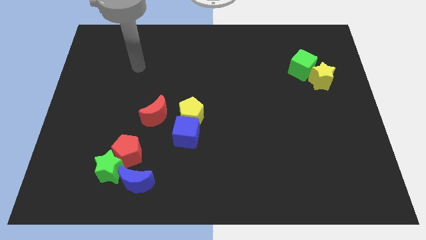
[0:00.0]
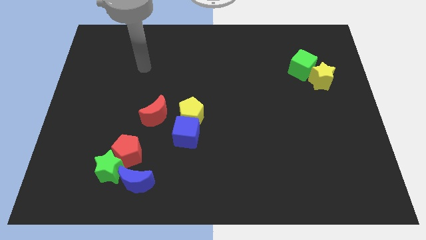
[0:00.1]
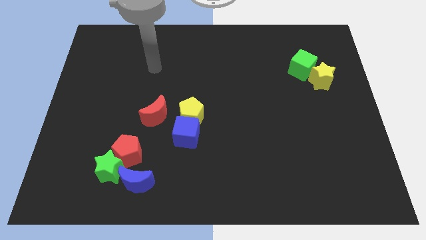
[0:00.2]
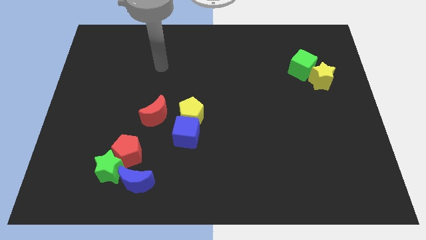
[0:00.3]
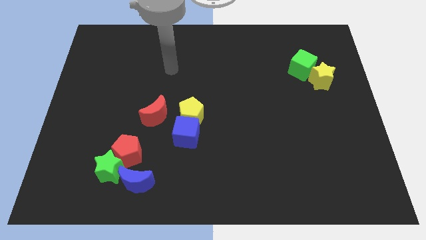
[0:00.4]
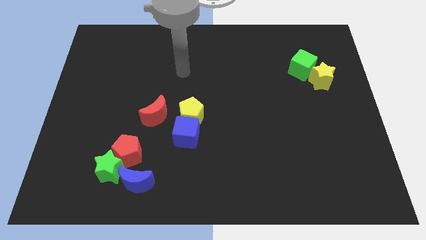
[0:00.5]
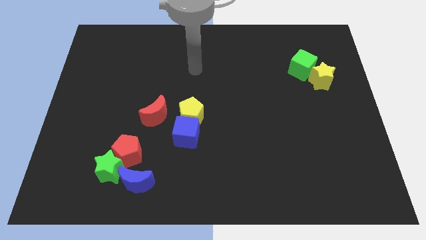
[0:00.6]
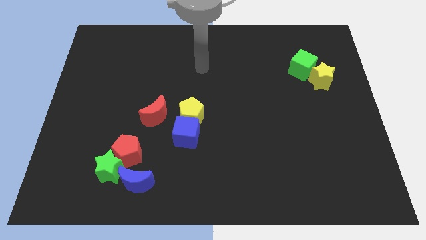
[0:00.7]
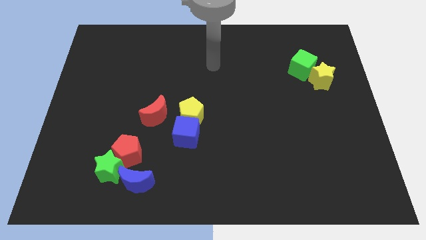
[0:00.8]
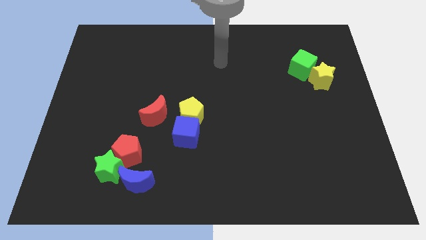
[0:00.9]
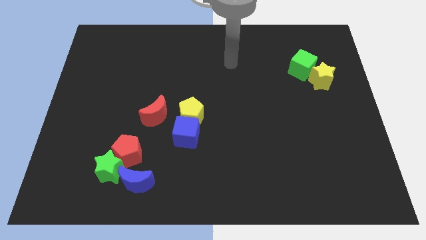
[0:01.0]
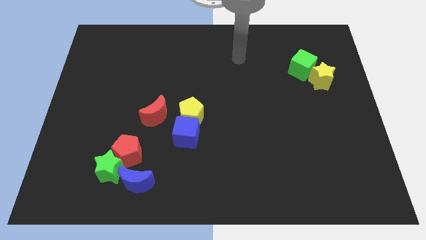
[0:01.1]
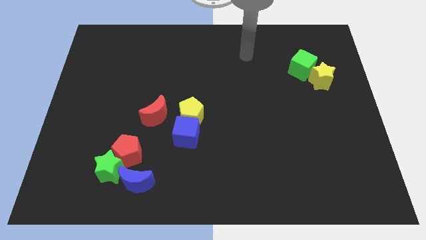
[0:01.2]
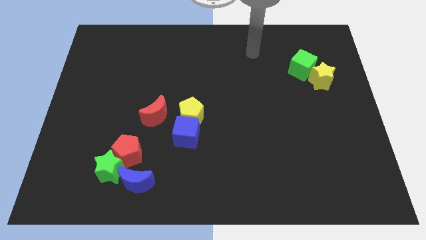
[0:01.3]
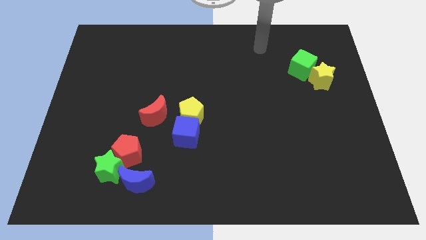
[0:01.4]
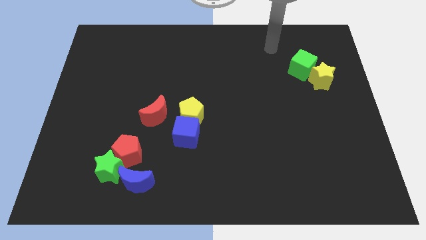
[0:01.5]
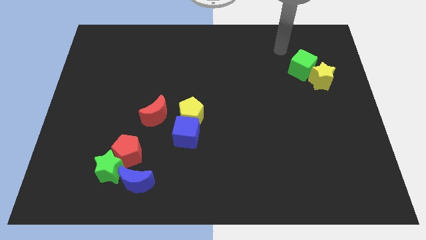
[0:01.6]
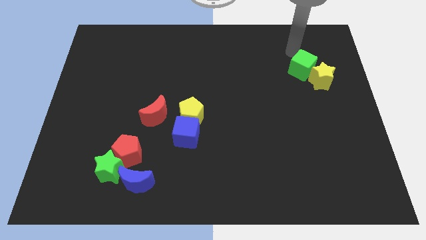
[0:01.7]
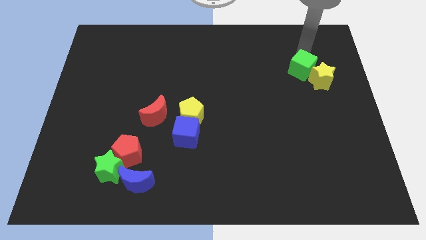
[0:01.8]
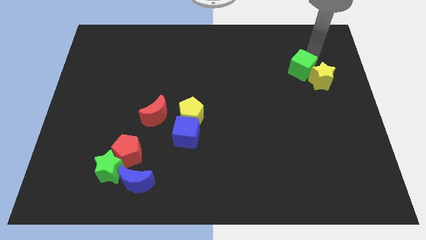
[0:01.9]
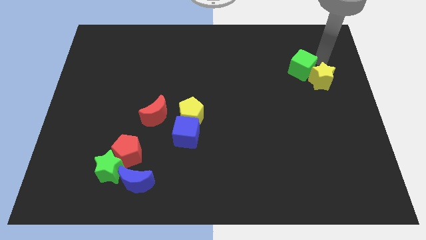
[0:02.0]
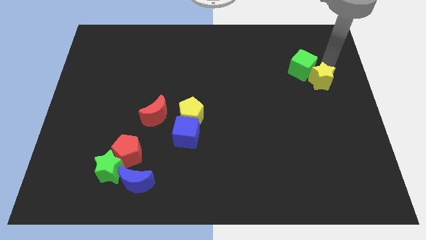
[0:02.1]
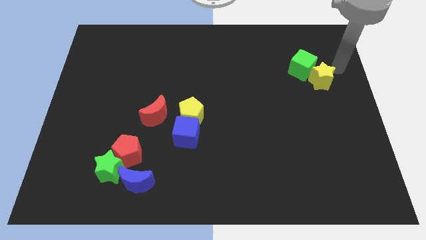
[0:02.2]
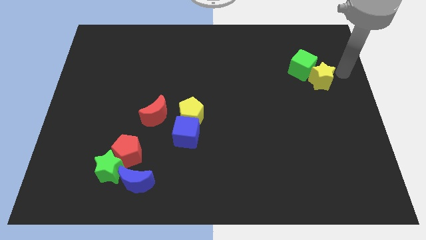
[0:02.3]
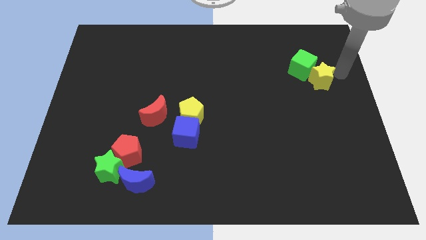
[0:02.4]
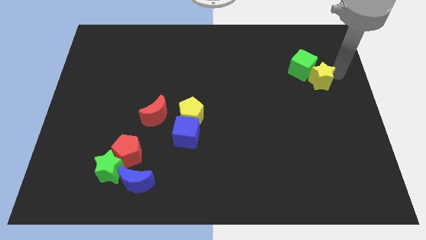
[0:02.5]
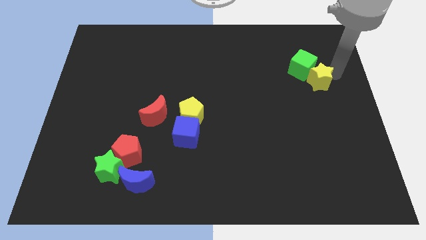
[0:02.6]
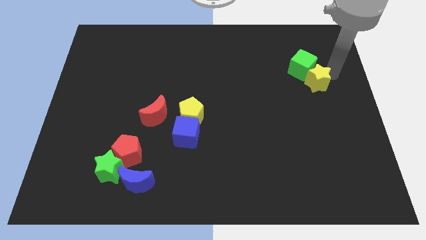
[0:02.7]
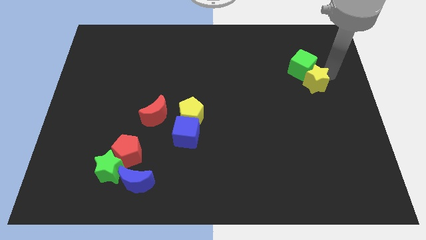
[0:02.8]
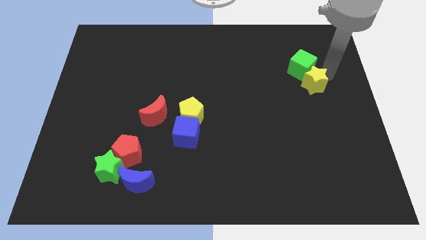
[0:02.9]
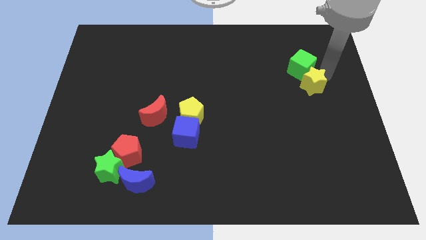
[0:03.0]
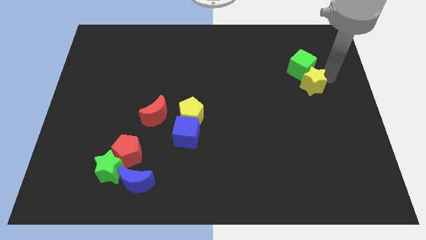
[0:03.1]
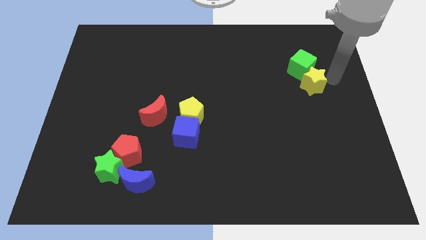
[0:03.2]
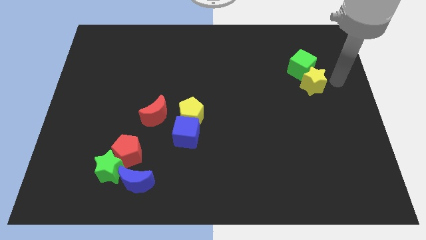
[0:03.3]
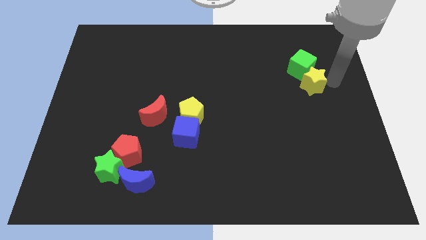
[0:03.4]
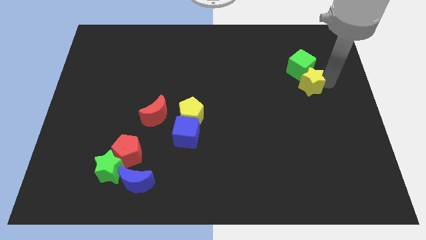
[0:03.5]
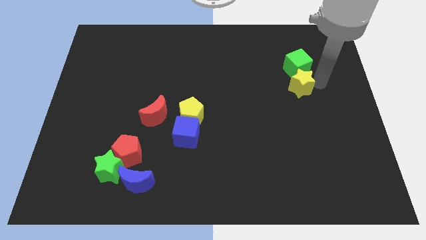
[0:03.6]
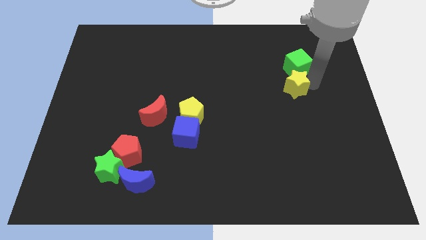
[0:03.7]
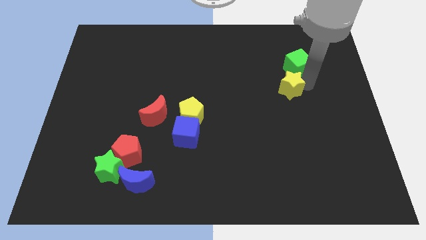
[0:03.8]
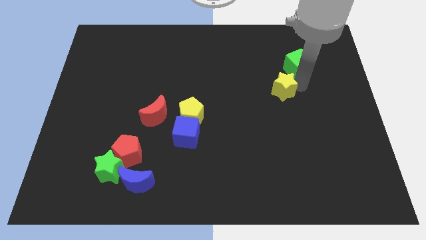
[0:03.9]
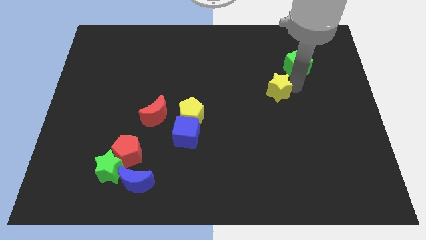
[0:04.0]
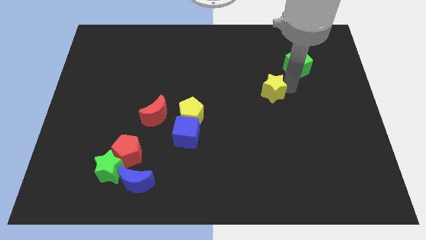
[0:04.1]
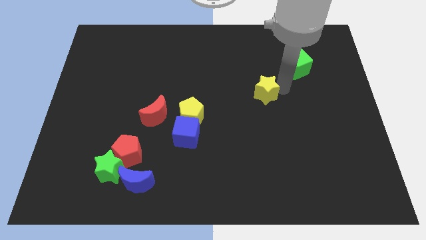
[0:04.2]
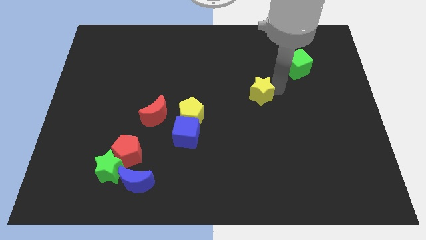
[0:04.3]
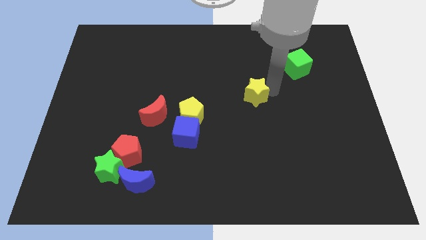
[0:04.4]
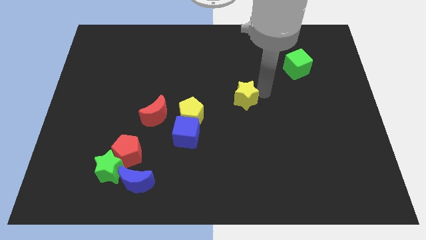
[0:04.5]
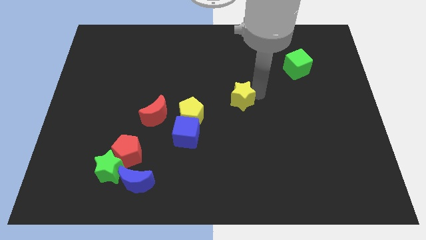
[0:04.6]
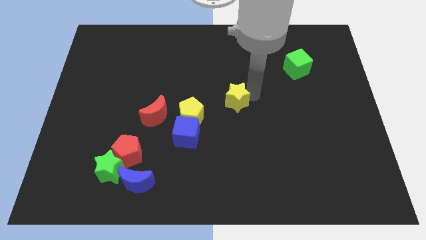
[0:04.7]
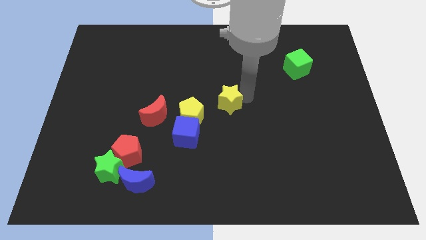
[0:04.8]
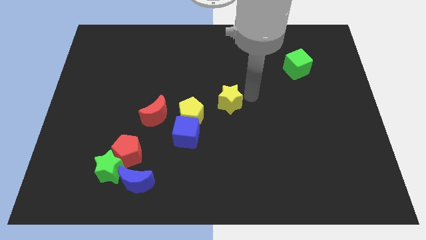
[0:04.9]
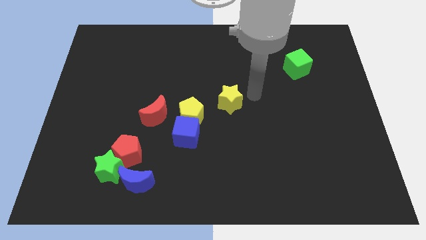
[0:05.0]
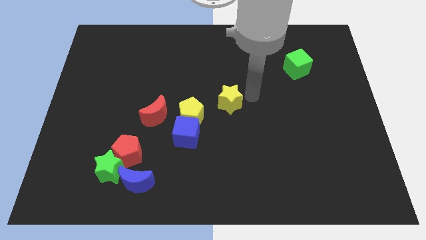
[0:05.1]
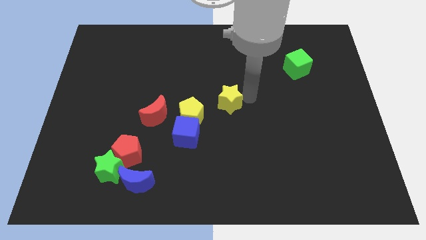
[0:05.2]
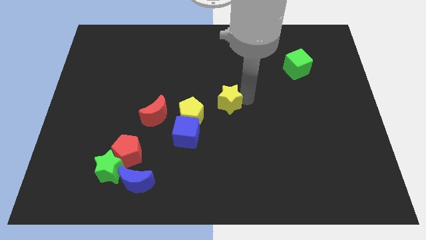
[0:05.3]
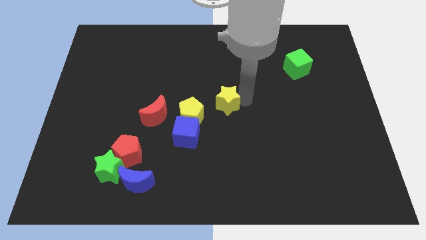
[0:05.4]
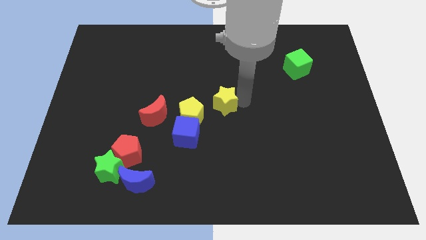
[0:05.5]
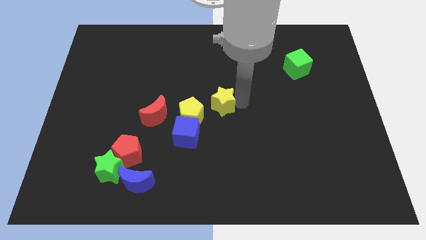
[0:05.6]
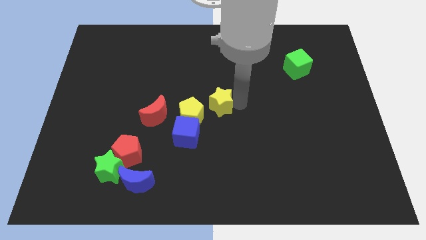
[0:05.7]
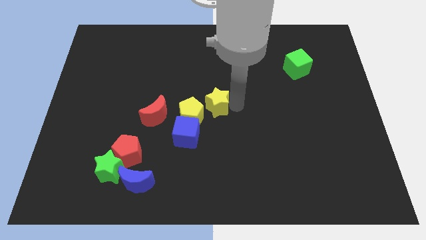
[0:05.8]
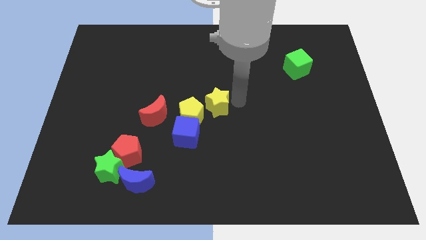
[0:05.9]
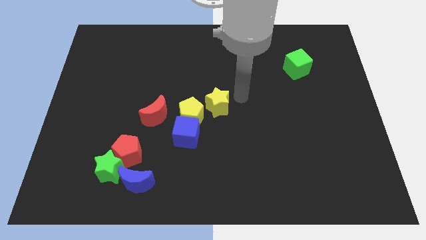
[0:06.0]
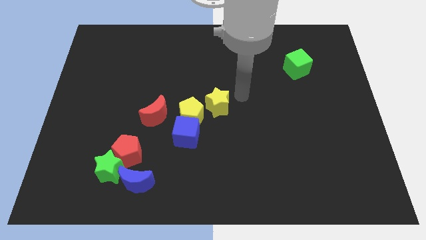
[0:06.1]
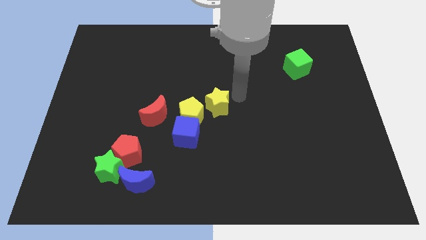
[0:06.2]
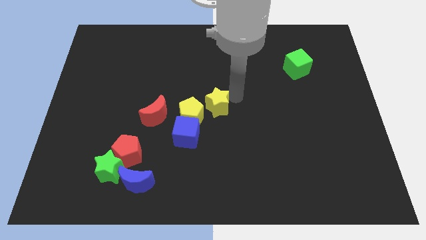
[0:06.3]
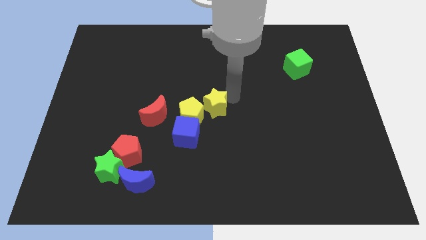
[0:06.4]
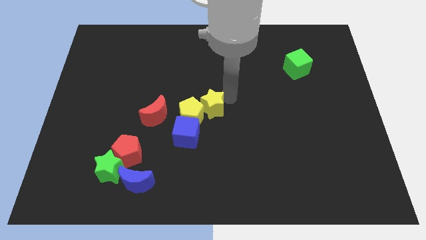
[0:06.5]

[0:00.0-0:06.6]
slide the yellow star to the yellow pentagon

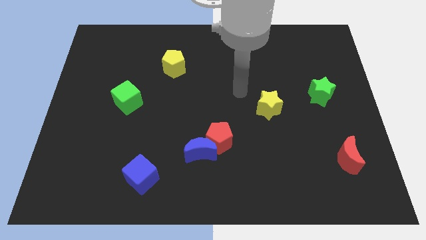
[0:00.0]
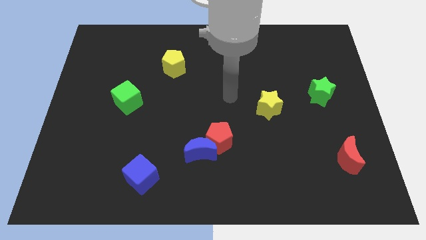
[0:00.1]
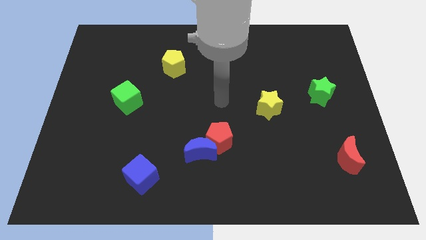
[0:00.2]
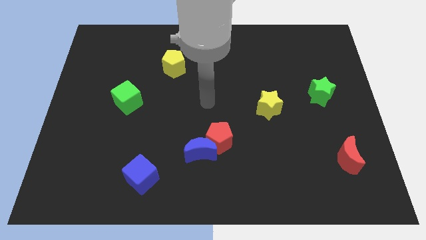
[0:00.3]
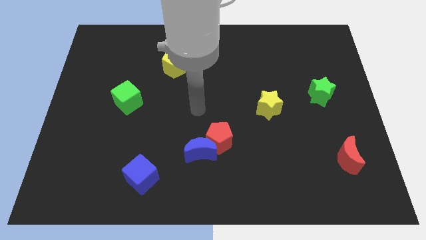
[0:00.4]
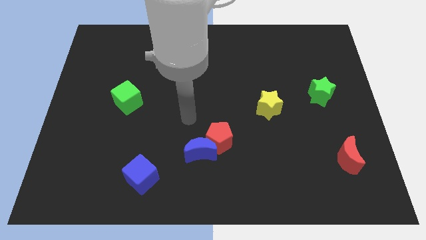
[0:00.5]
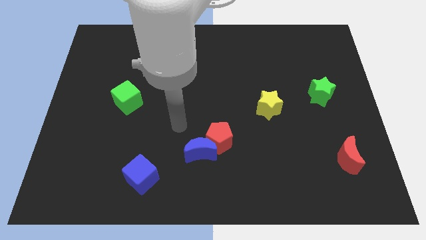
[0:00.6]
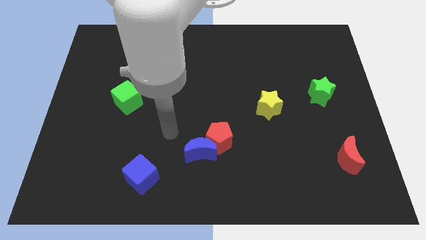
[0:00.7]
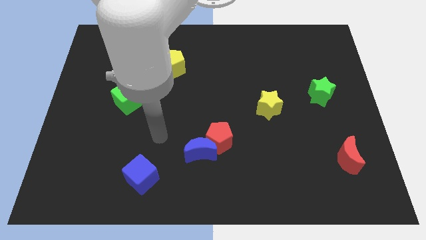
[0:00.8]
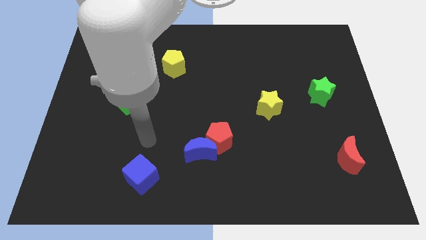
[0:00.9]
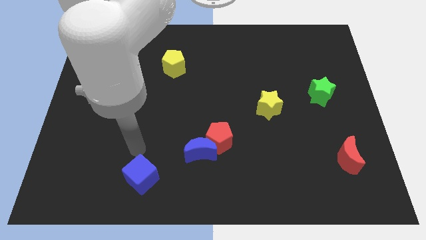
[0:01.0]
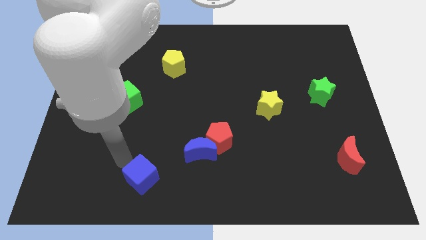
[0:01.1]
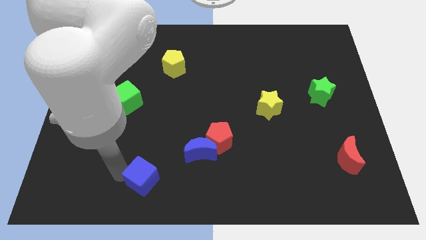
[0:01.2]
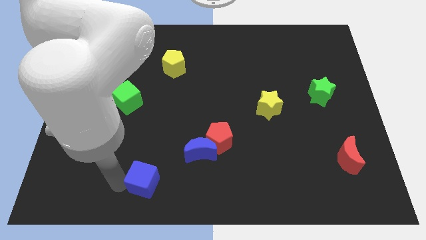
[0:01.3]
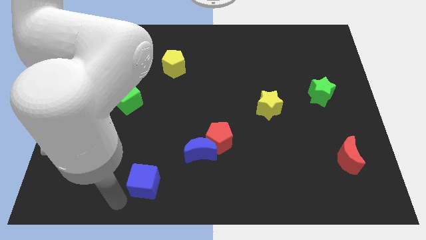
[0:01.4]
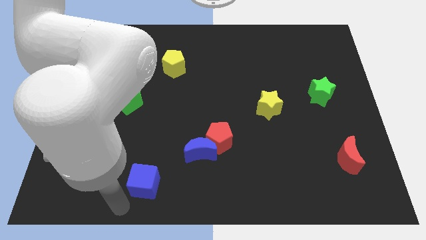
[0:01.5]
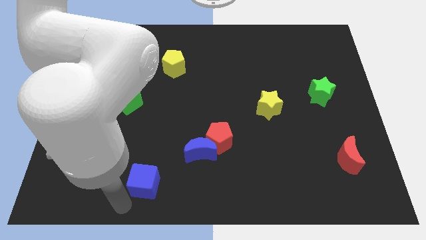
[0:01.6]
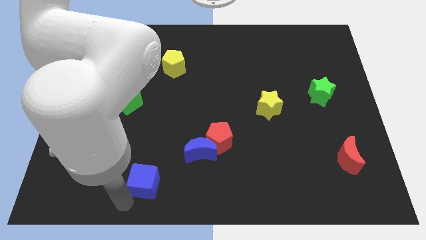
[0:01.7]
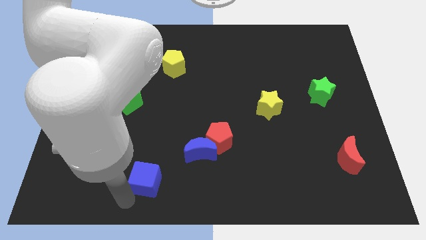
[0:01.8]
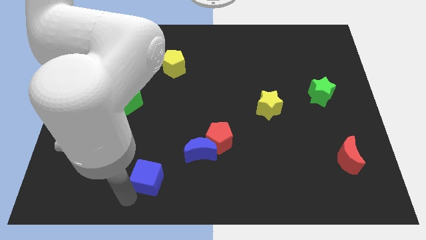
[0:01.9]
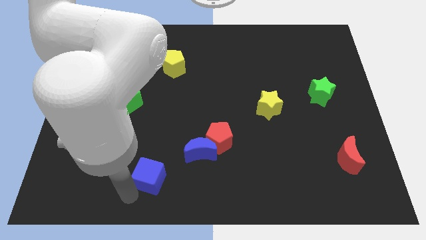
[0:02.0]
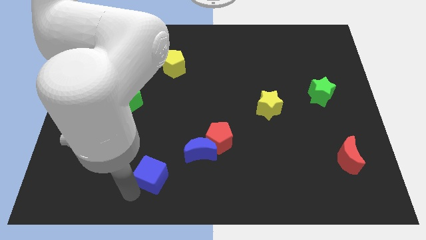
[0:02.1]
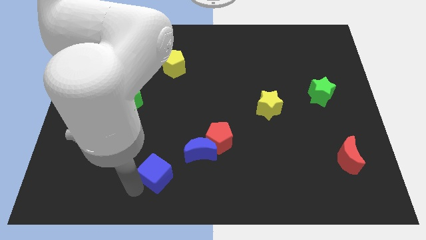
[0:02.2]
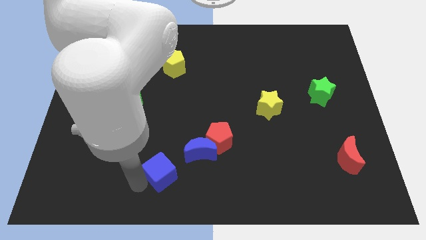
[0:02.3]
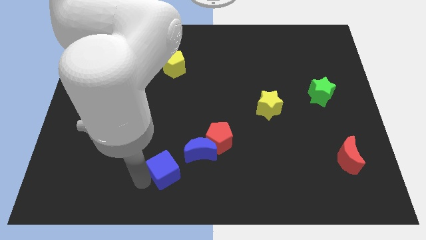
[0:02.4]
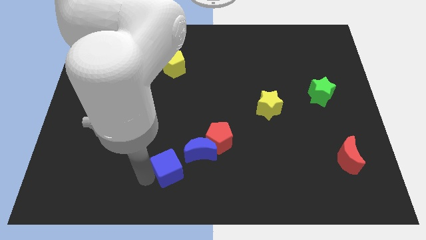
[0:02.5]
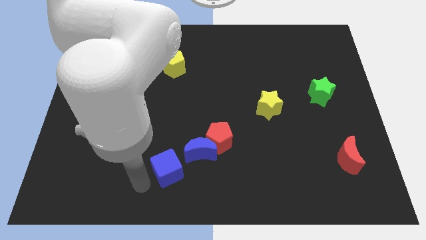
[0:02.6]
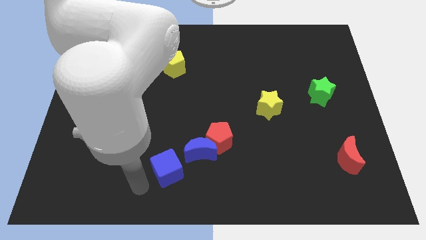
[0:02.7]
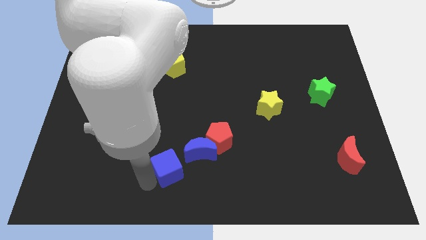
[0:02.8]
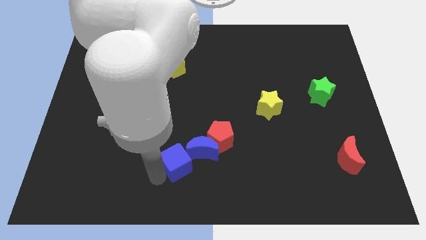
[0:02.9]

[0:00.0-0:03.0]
slide the blue cube close to the blue moon
